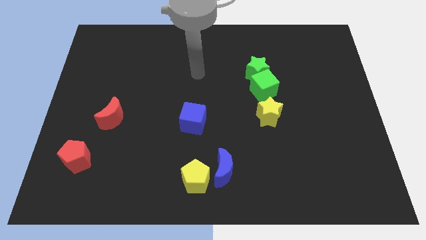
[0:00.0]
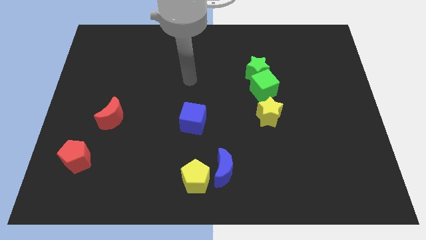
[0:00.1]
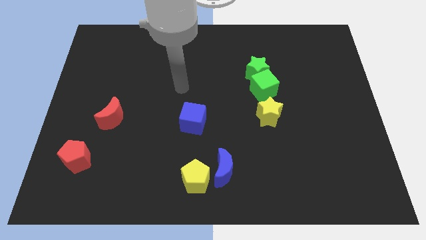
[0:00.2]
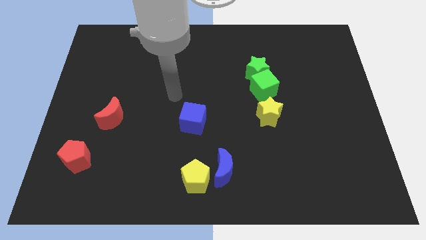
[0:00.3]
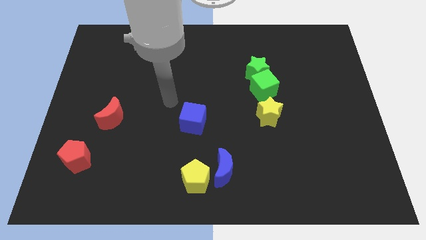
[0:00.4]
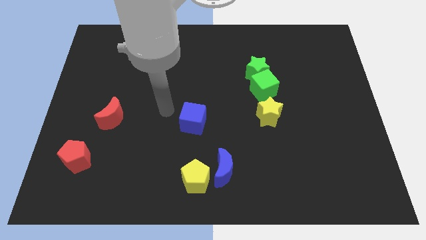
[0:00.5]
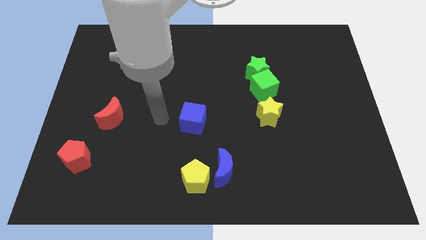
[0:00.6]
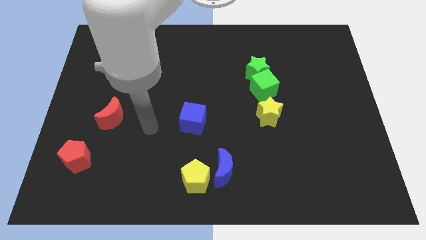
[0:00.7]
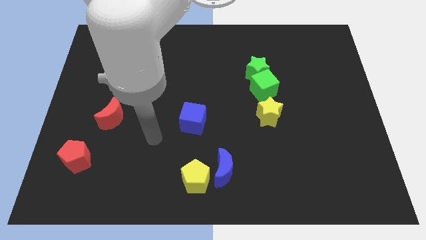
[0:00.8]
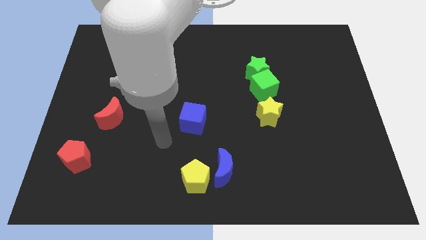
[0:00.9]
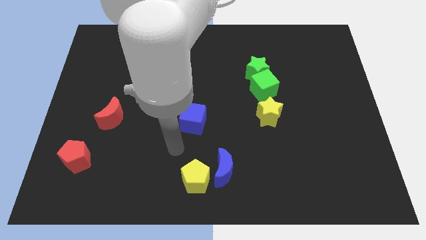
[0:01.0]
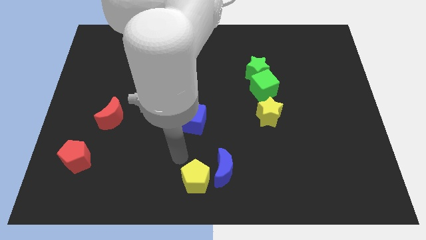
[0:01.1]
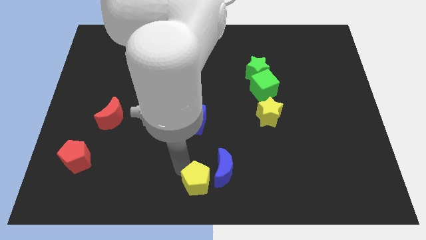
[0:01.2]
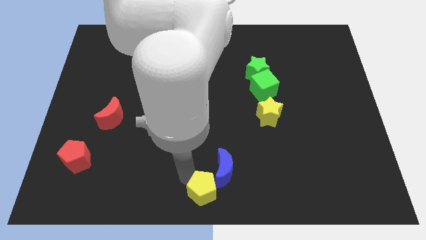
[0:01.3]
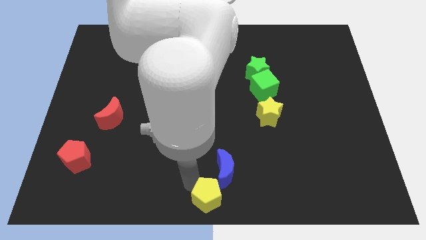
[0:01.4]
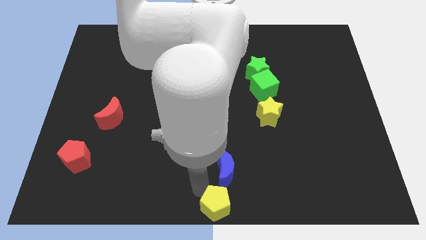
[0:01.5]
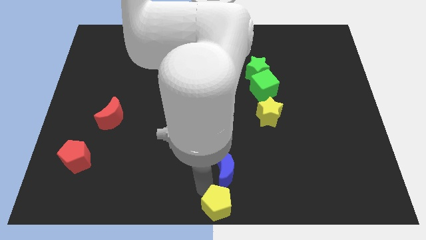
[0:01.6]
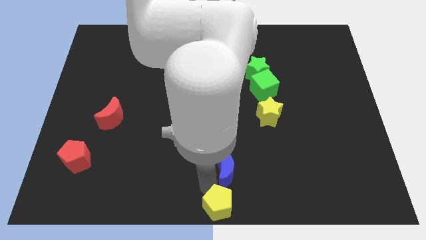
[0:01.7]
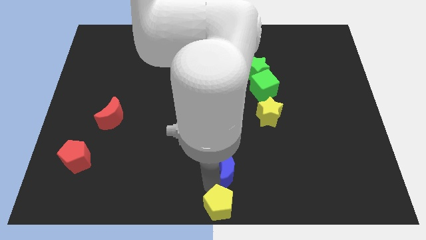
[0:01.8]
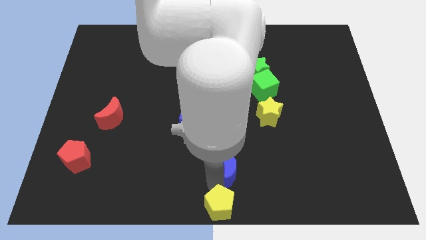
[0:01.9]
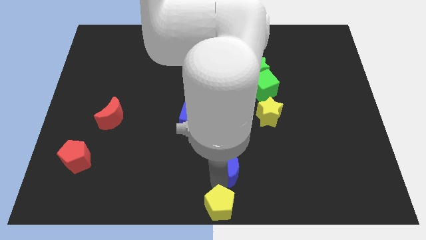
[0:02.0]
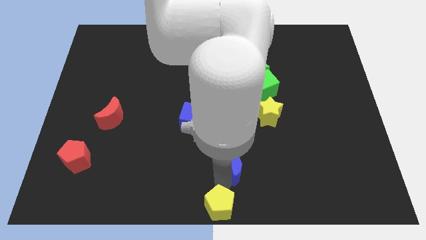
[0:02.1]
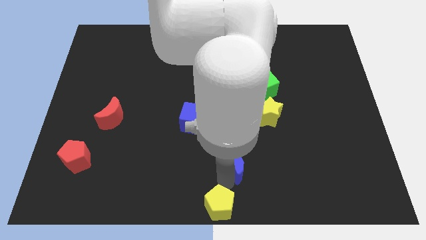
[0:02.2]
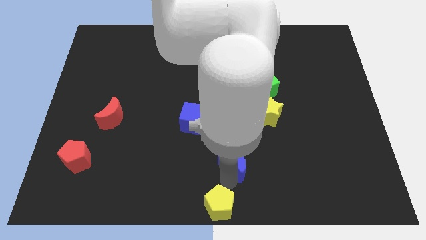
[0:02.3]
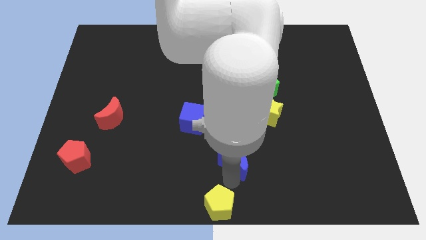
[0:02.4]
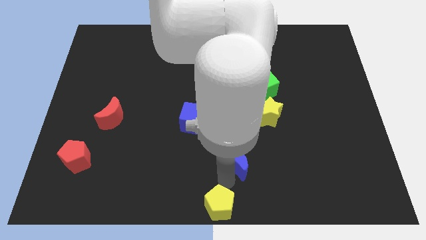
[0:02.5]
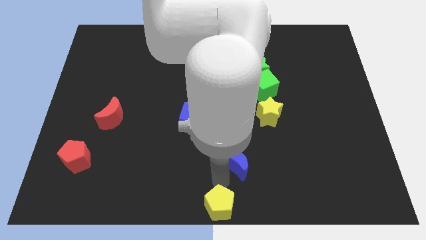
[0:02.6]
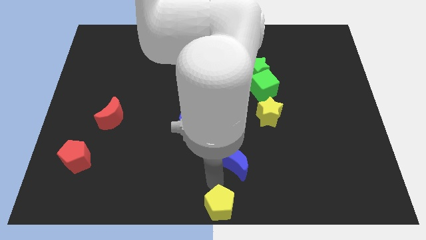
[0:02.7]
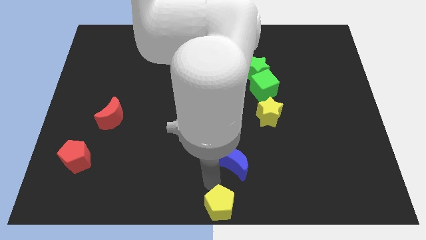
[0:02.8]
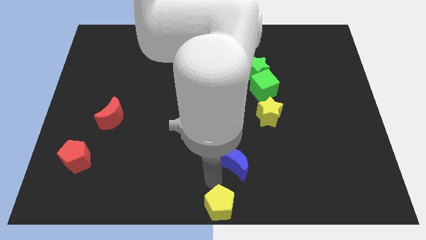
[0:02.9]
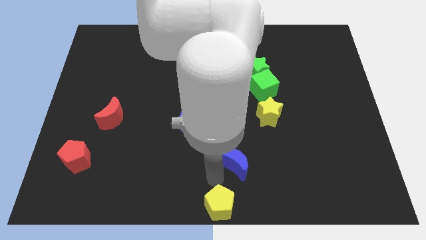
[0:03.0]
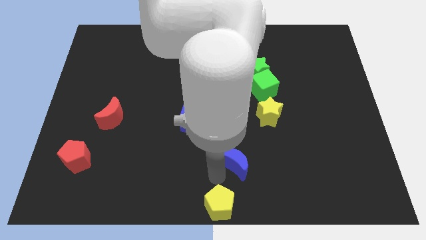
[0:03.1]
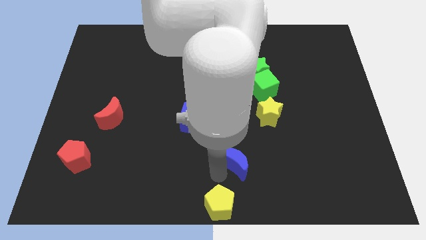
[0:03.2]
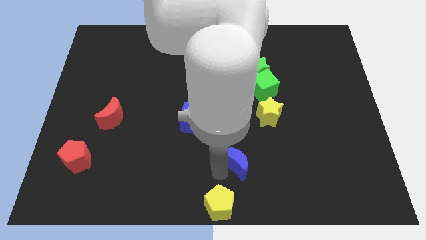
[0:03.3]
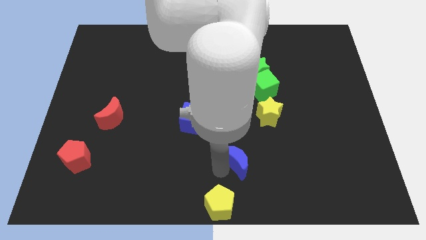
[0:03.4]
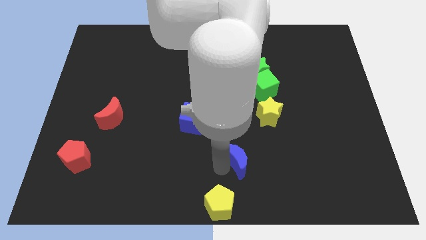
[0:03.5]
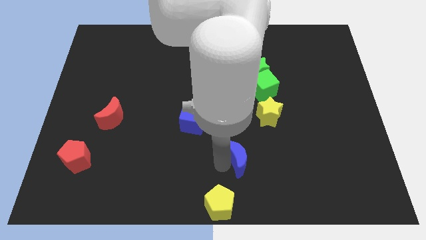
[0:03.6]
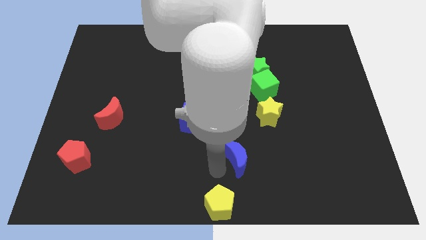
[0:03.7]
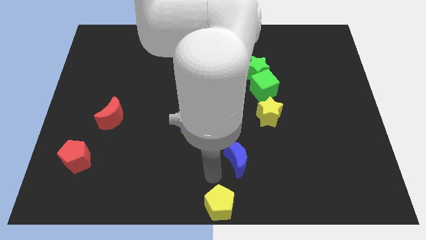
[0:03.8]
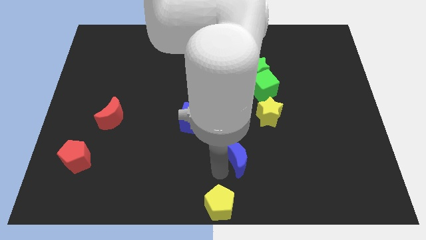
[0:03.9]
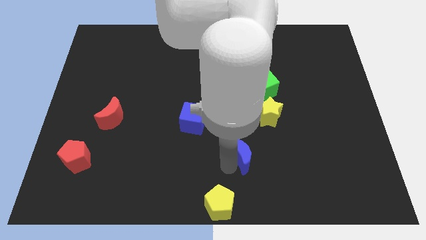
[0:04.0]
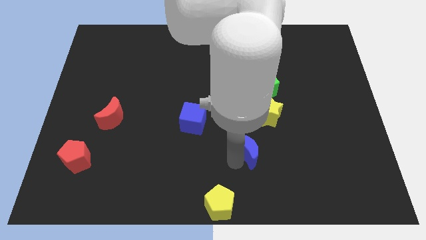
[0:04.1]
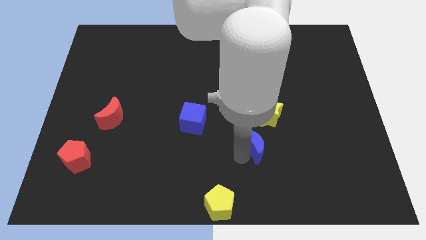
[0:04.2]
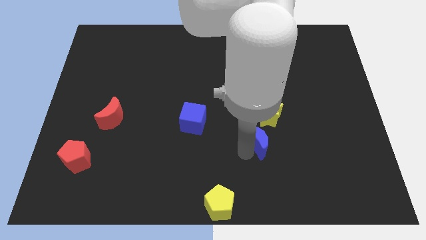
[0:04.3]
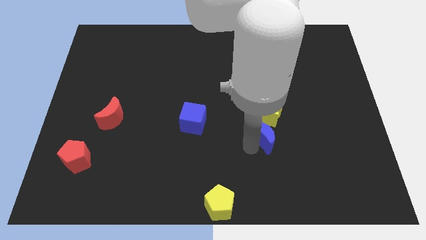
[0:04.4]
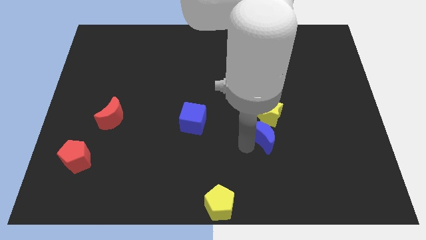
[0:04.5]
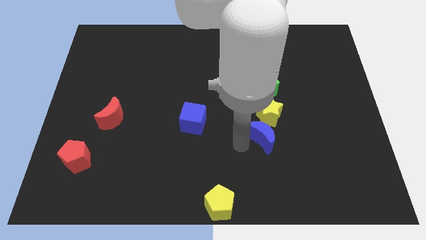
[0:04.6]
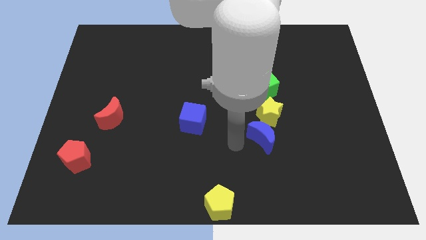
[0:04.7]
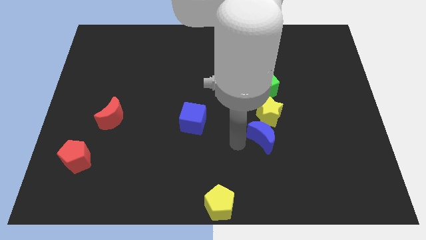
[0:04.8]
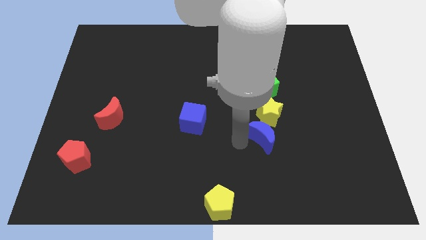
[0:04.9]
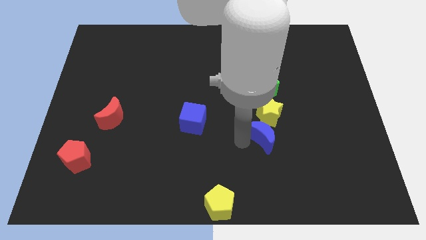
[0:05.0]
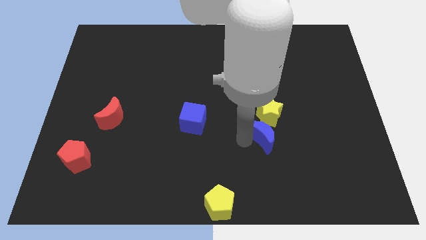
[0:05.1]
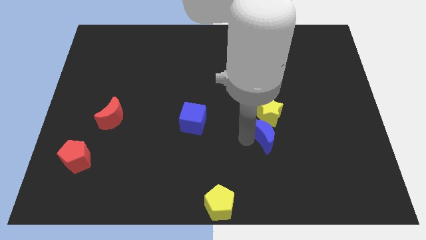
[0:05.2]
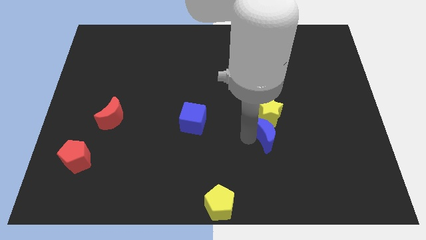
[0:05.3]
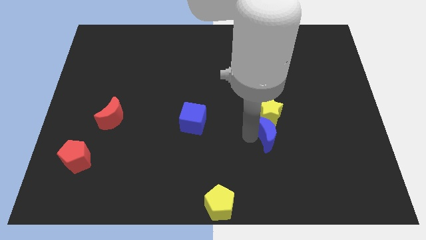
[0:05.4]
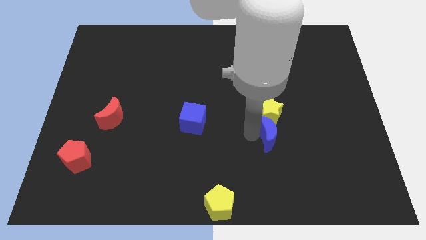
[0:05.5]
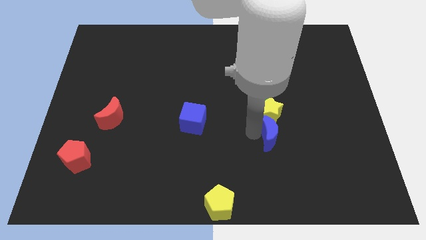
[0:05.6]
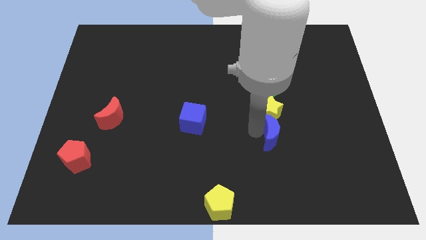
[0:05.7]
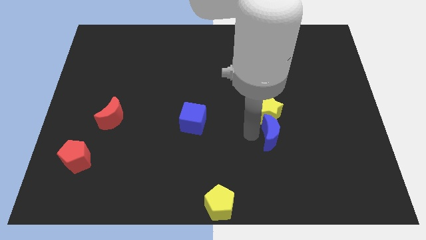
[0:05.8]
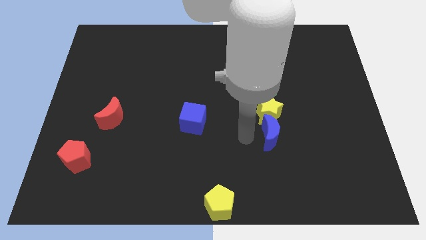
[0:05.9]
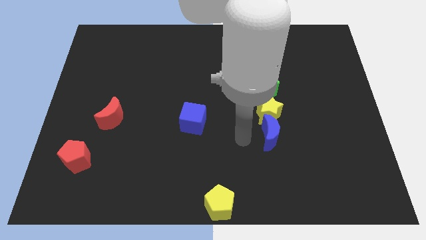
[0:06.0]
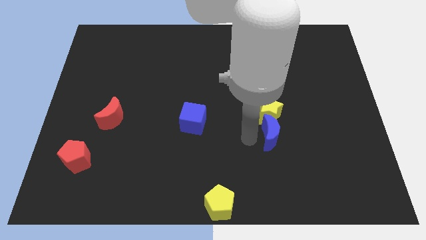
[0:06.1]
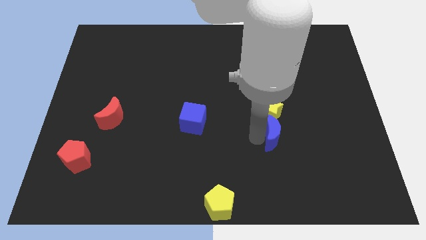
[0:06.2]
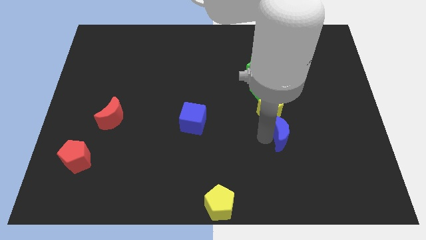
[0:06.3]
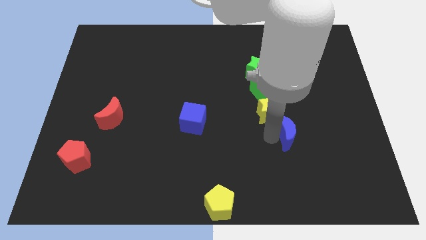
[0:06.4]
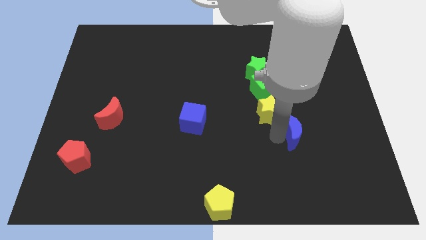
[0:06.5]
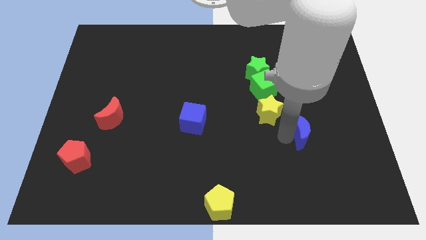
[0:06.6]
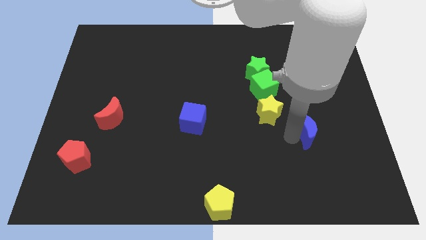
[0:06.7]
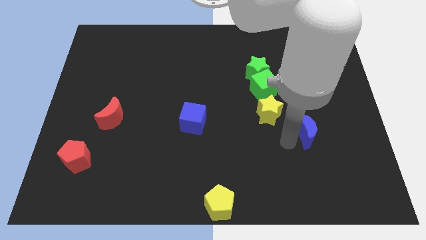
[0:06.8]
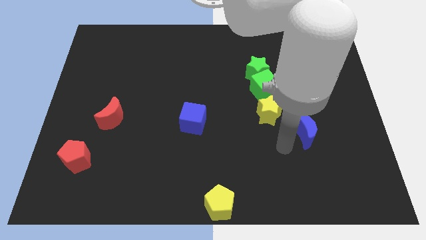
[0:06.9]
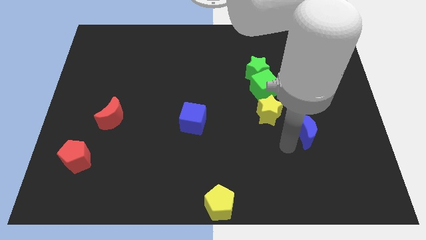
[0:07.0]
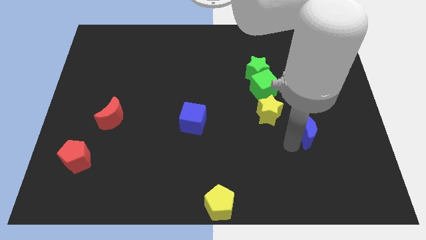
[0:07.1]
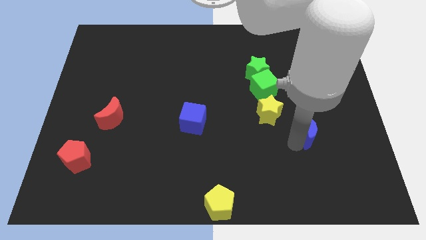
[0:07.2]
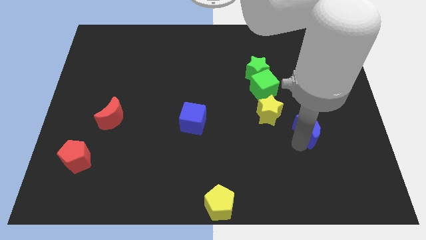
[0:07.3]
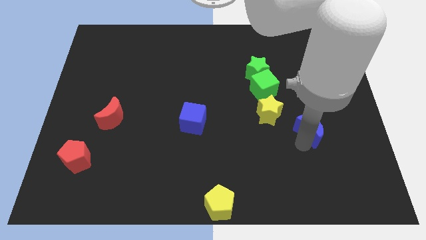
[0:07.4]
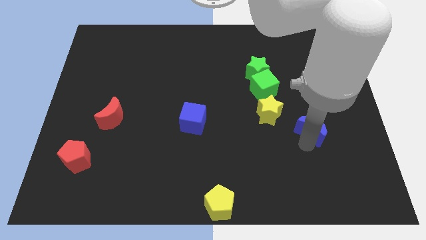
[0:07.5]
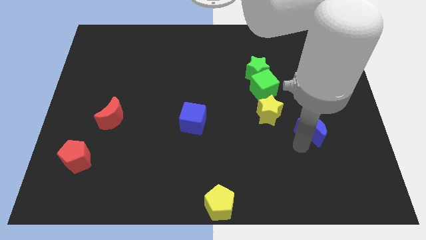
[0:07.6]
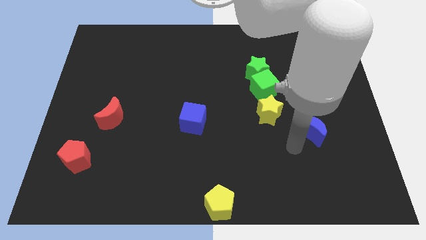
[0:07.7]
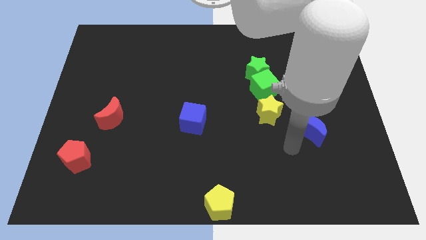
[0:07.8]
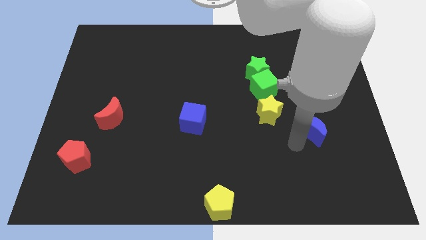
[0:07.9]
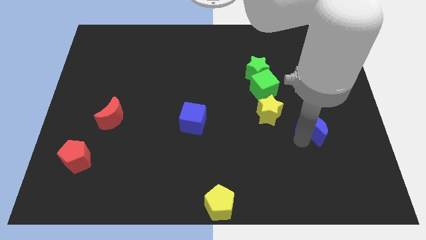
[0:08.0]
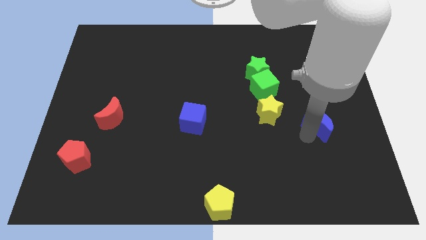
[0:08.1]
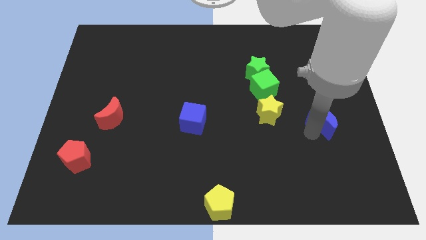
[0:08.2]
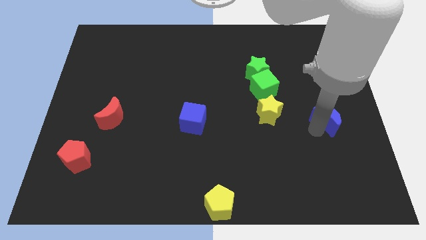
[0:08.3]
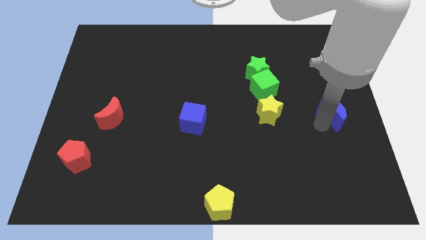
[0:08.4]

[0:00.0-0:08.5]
push the blue moon to the right side
